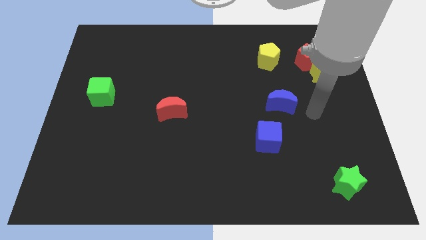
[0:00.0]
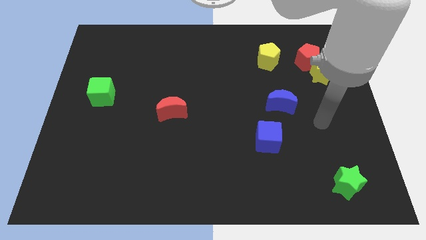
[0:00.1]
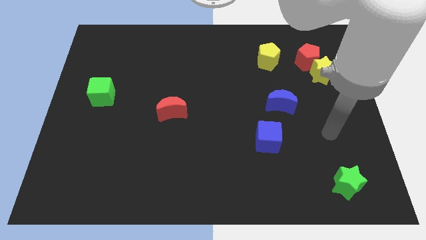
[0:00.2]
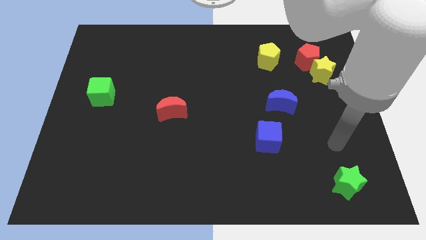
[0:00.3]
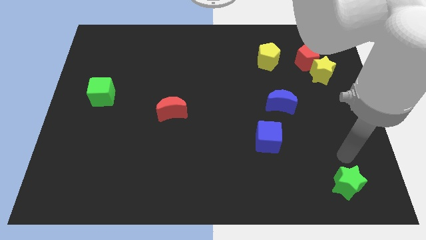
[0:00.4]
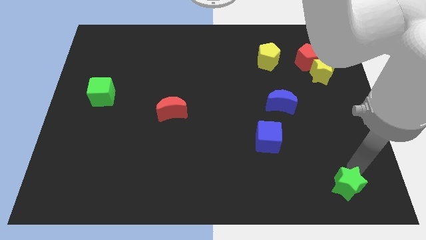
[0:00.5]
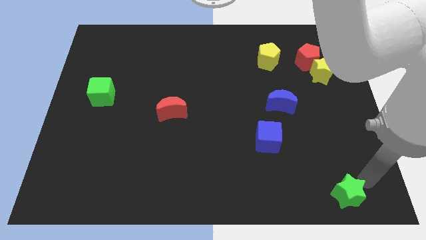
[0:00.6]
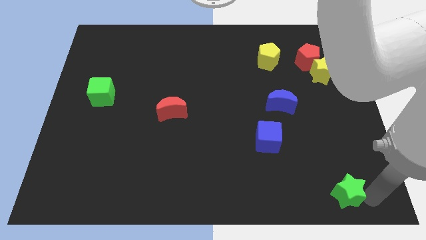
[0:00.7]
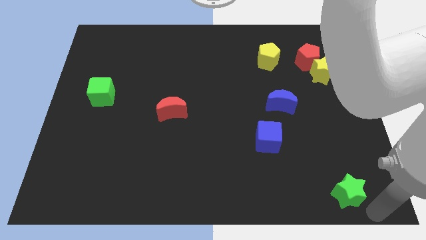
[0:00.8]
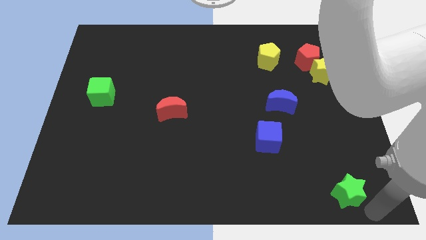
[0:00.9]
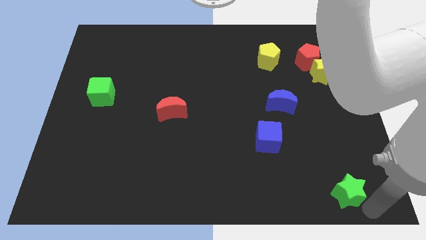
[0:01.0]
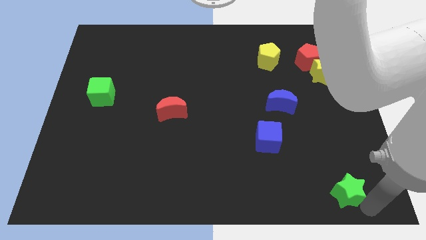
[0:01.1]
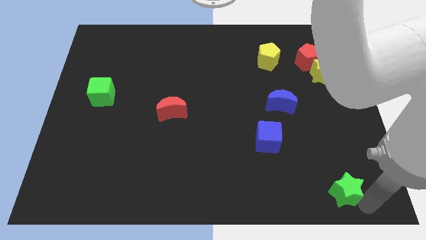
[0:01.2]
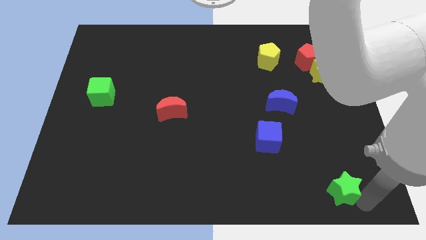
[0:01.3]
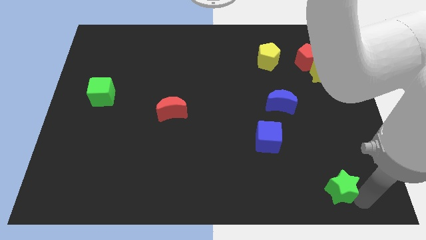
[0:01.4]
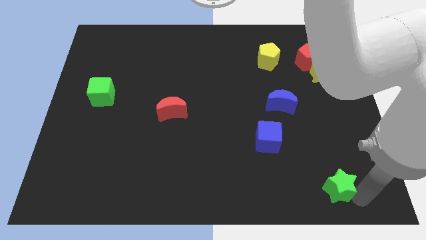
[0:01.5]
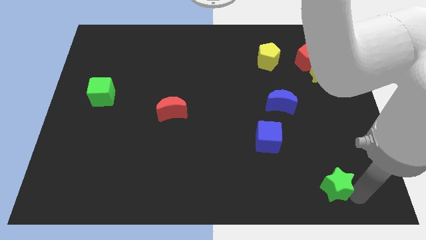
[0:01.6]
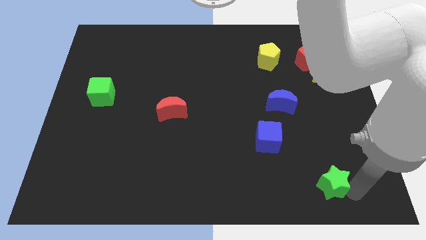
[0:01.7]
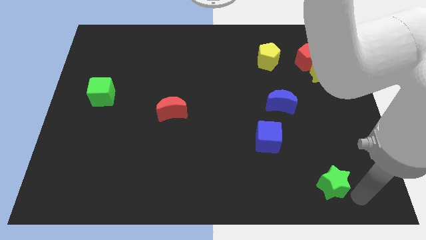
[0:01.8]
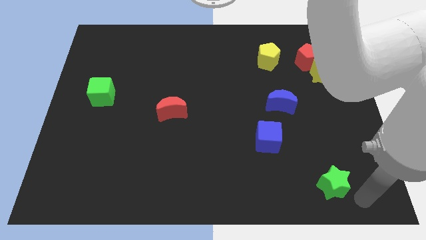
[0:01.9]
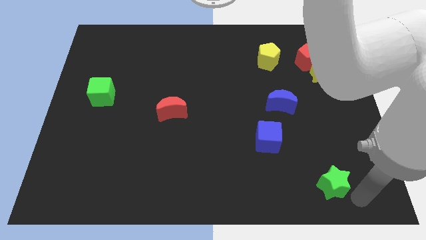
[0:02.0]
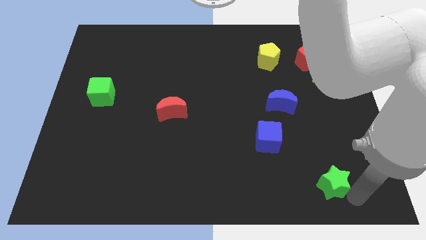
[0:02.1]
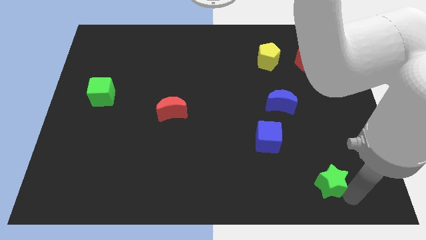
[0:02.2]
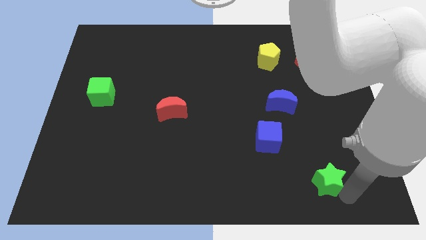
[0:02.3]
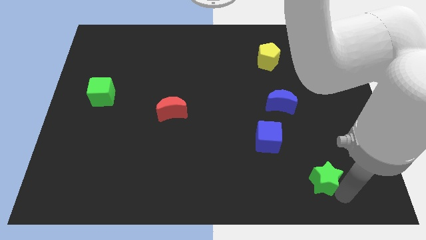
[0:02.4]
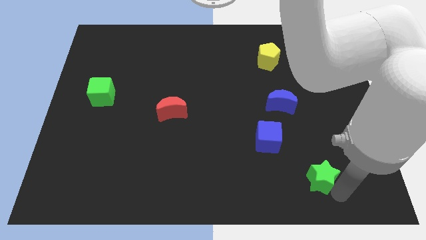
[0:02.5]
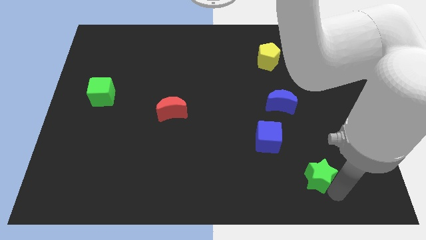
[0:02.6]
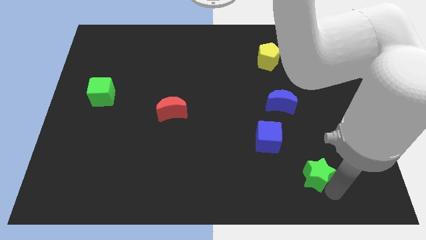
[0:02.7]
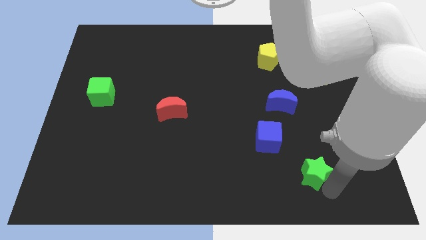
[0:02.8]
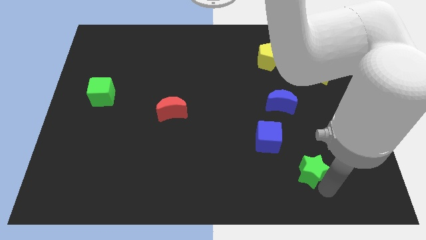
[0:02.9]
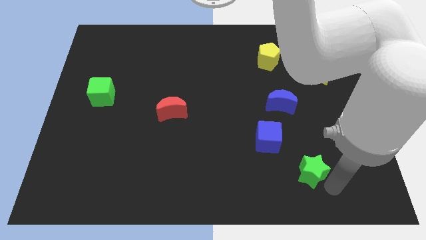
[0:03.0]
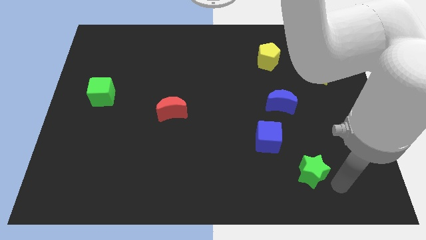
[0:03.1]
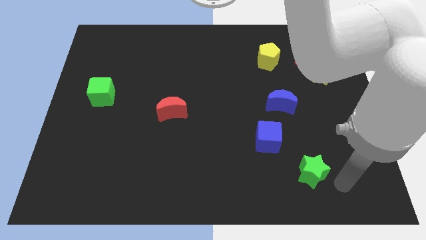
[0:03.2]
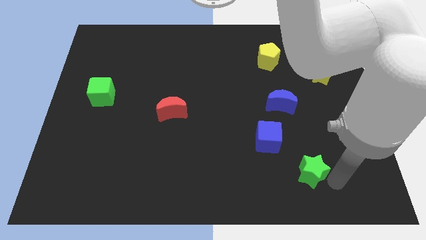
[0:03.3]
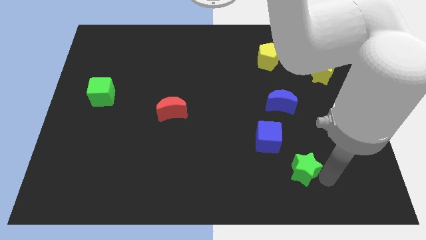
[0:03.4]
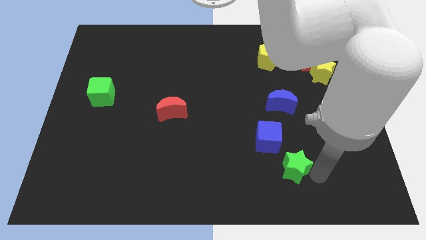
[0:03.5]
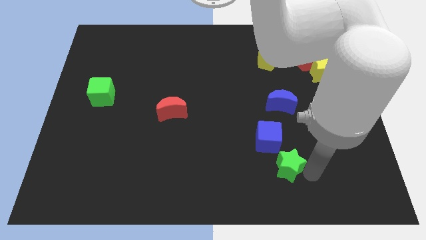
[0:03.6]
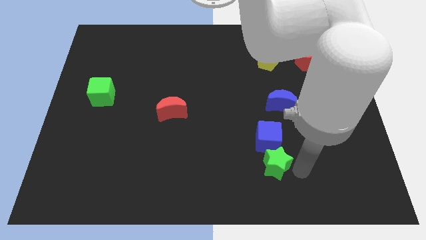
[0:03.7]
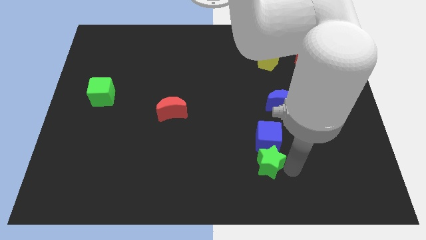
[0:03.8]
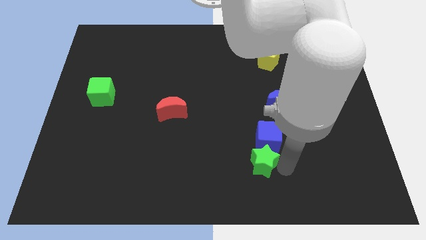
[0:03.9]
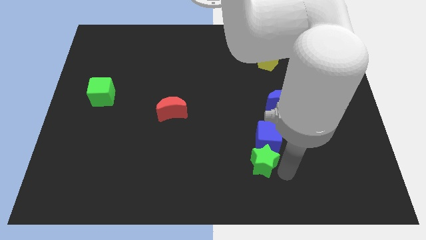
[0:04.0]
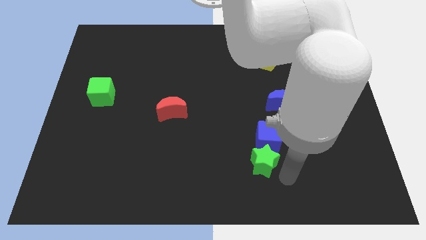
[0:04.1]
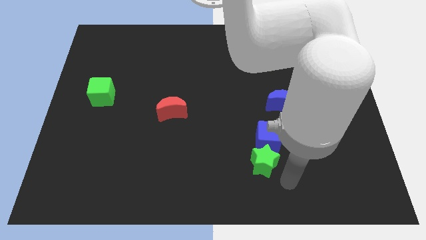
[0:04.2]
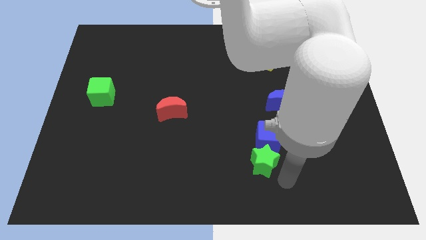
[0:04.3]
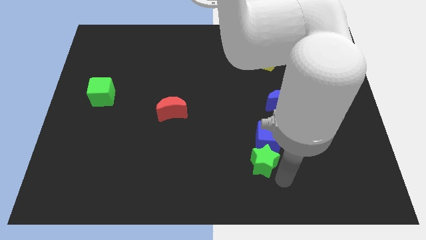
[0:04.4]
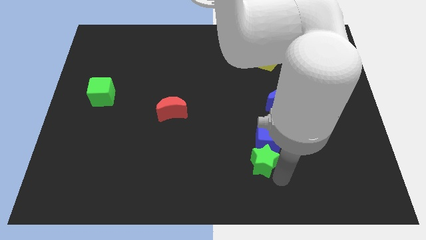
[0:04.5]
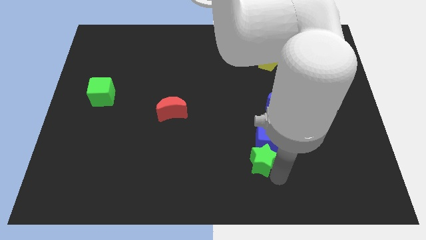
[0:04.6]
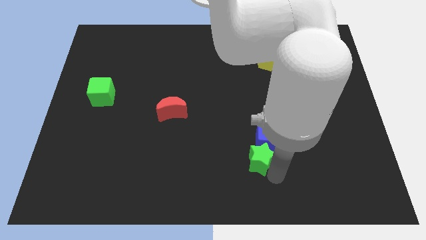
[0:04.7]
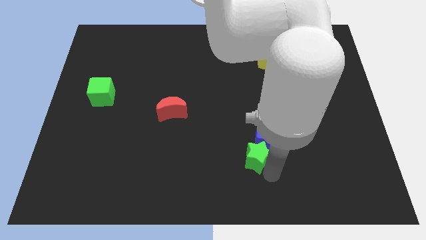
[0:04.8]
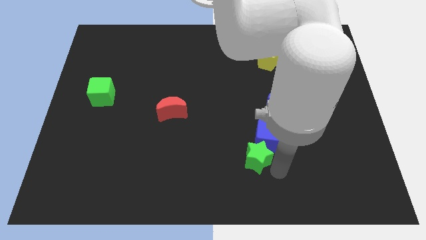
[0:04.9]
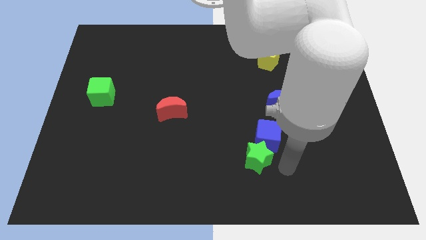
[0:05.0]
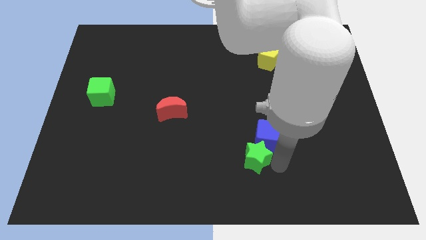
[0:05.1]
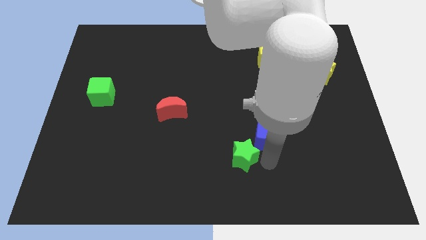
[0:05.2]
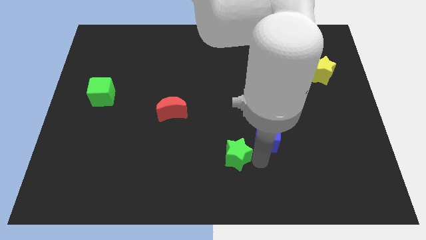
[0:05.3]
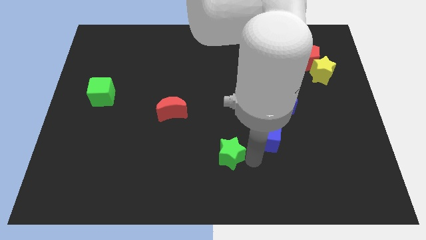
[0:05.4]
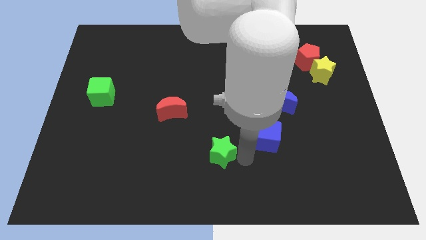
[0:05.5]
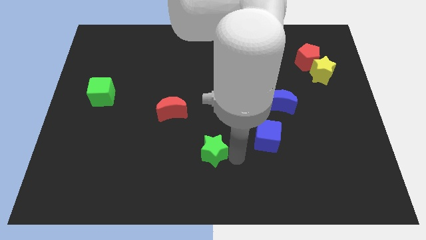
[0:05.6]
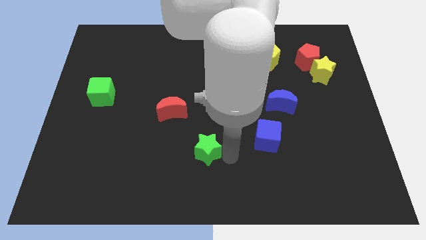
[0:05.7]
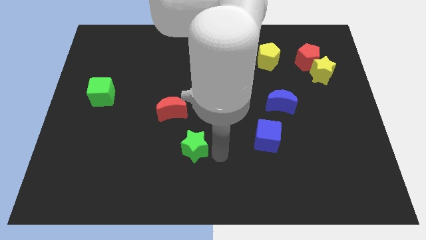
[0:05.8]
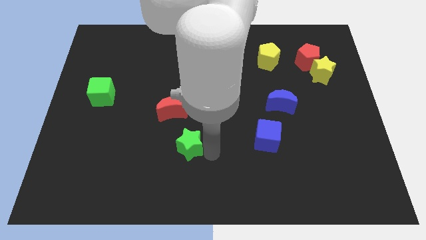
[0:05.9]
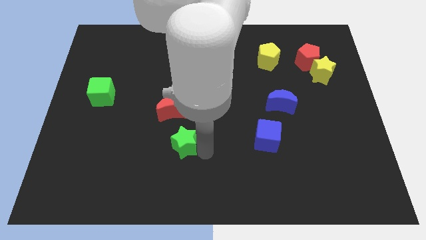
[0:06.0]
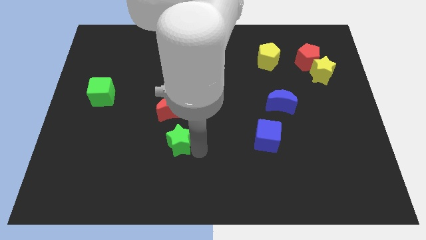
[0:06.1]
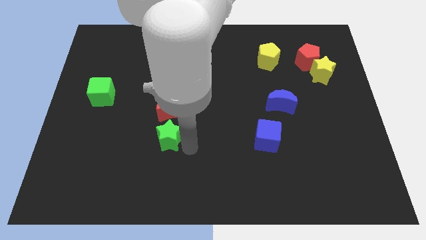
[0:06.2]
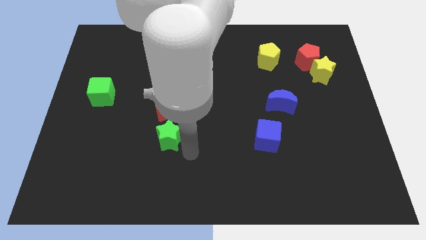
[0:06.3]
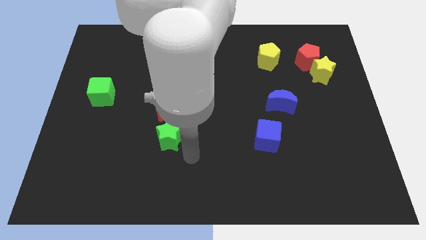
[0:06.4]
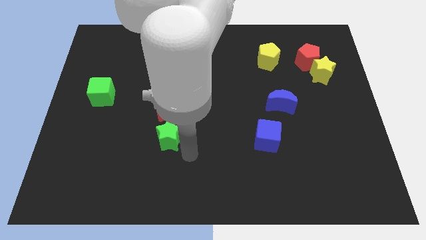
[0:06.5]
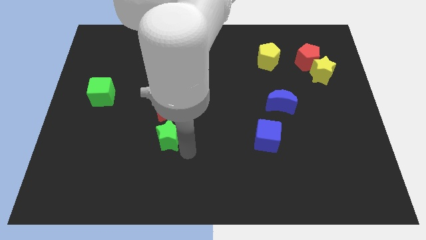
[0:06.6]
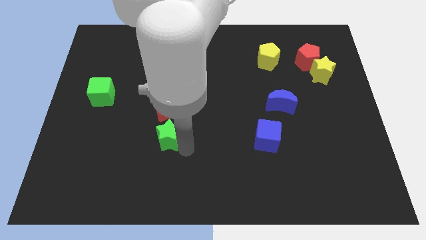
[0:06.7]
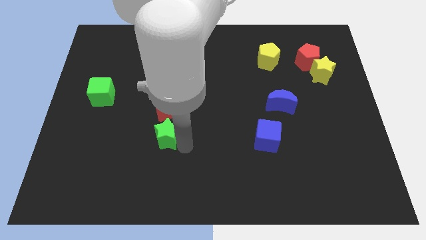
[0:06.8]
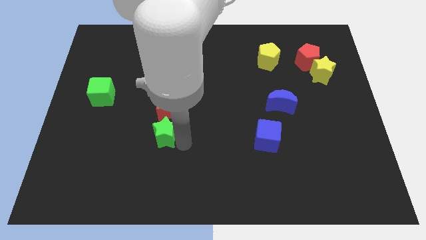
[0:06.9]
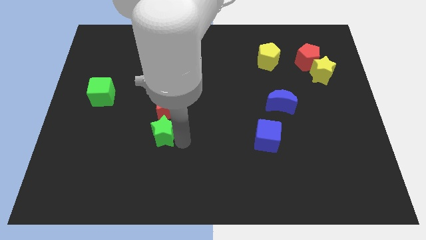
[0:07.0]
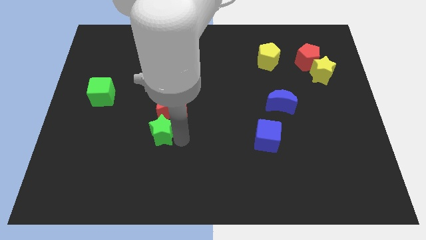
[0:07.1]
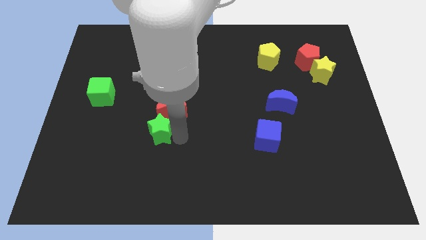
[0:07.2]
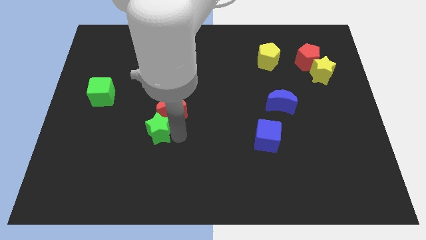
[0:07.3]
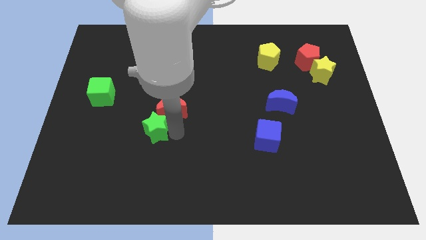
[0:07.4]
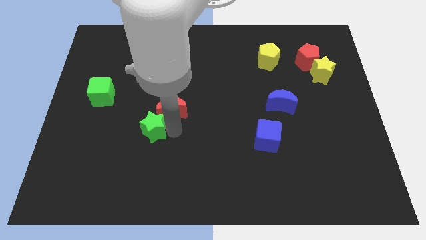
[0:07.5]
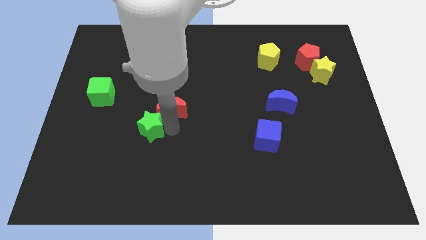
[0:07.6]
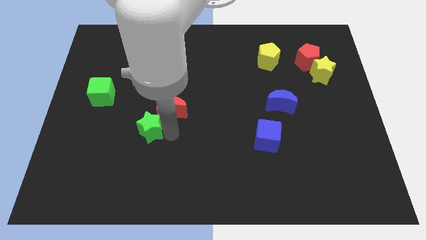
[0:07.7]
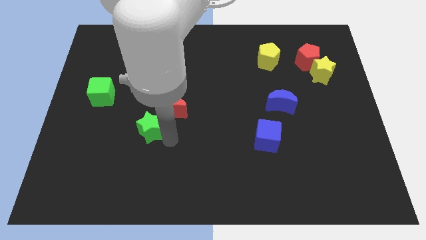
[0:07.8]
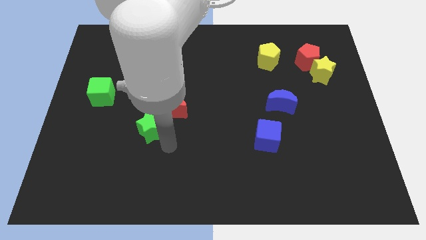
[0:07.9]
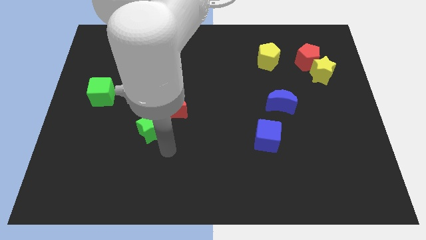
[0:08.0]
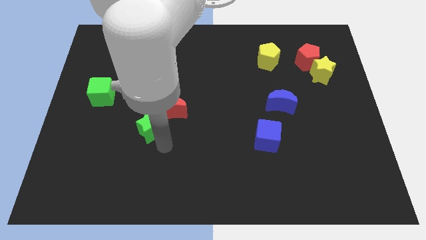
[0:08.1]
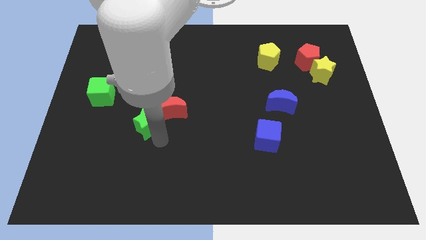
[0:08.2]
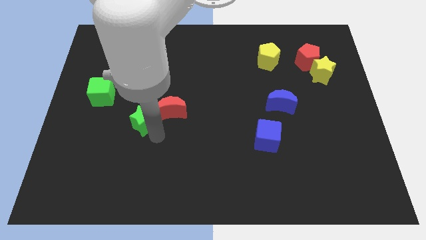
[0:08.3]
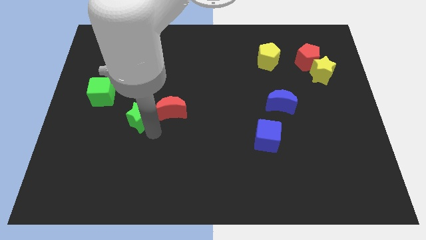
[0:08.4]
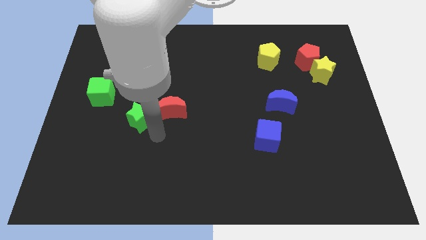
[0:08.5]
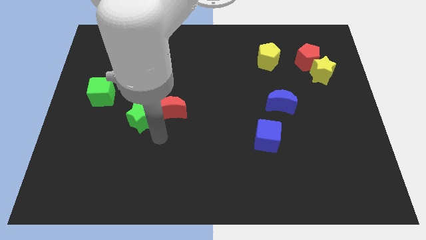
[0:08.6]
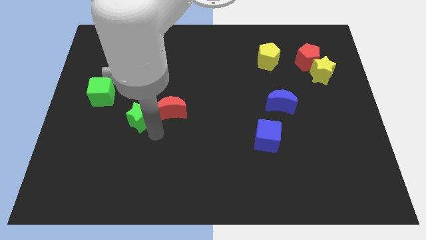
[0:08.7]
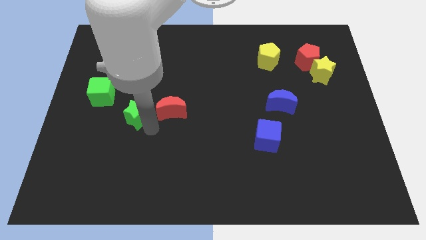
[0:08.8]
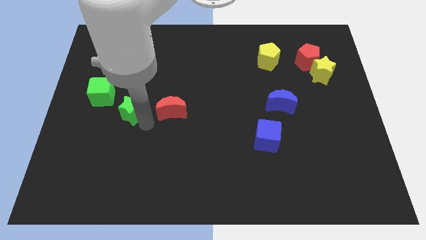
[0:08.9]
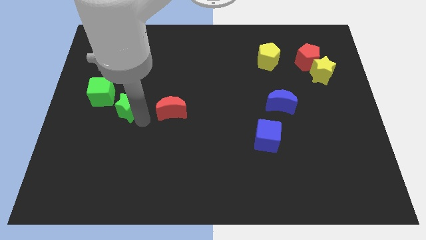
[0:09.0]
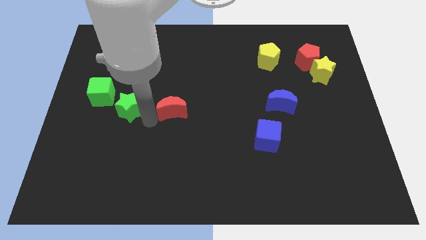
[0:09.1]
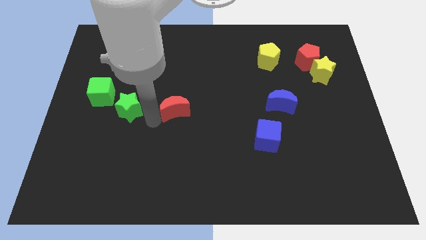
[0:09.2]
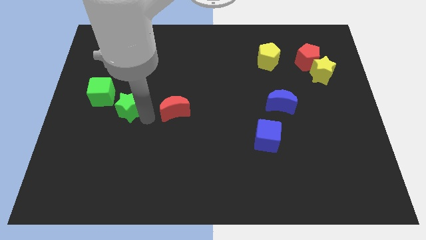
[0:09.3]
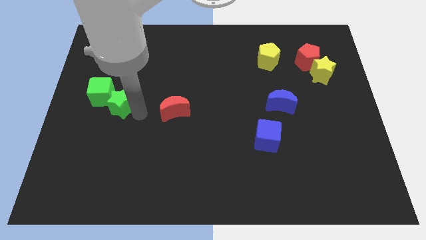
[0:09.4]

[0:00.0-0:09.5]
push the green star towards the green cube
